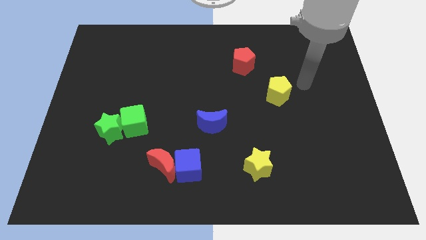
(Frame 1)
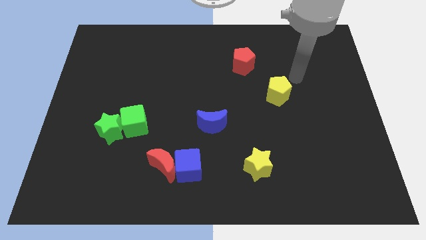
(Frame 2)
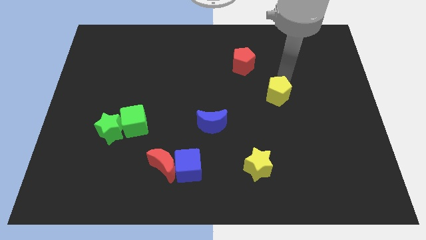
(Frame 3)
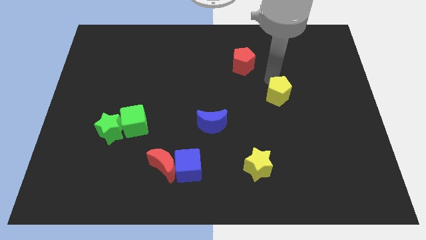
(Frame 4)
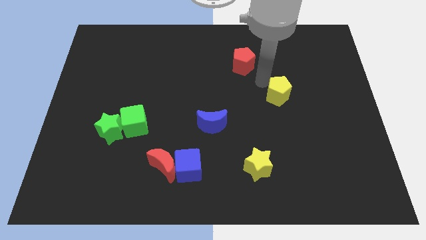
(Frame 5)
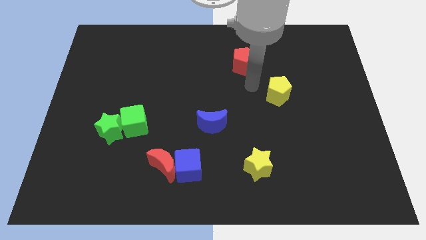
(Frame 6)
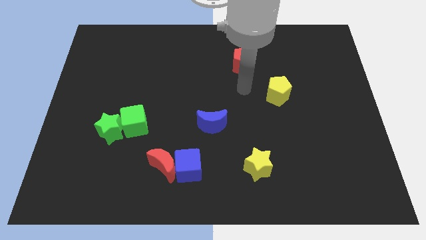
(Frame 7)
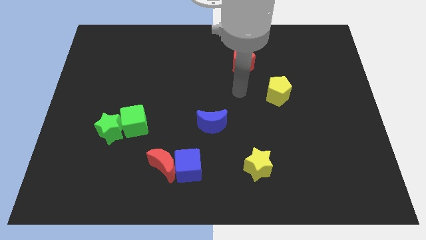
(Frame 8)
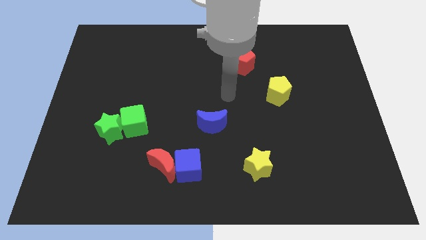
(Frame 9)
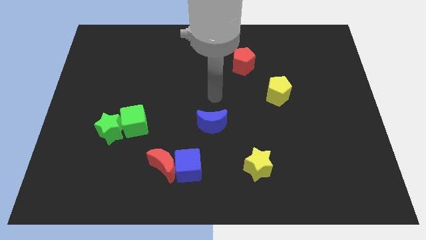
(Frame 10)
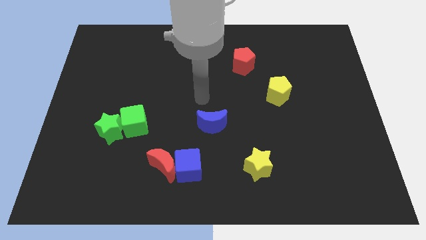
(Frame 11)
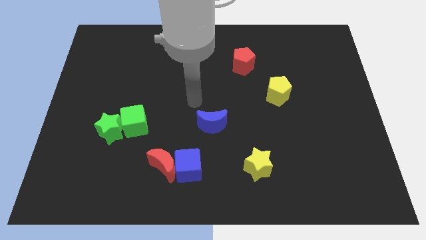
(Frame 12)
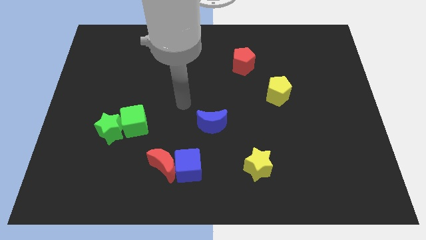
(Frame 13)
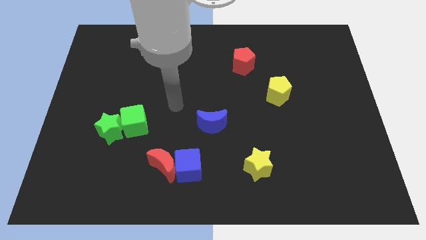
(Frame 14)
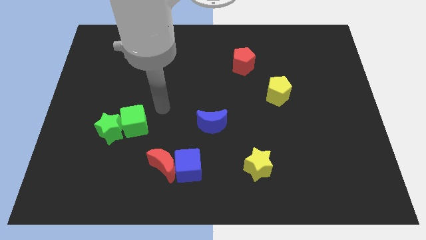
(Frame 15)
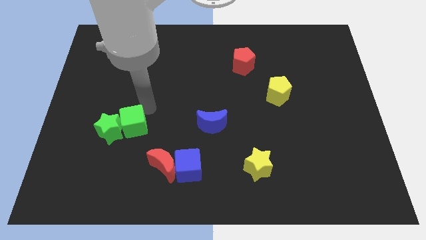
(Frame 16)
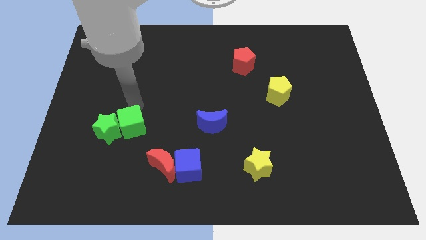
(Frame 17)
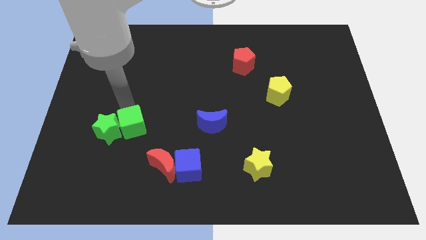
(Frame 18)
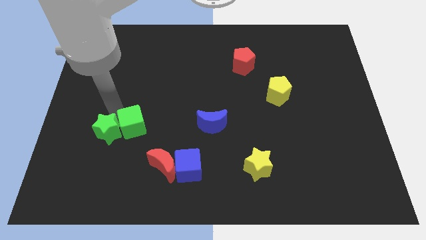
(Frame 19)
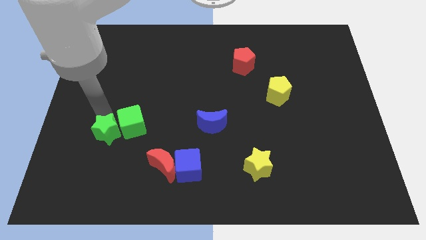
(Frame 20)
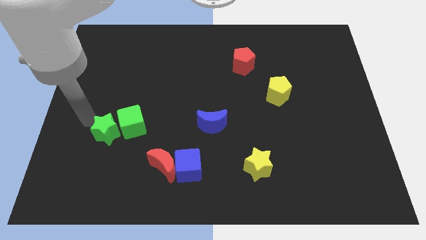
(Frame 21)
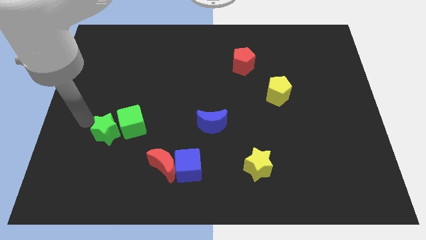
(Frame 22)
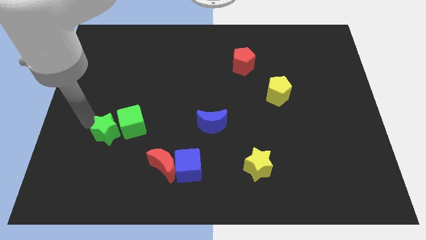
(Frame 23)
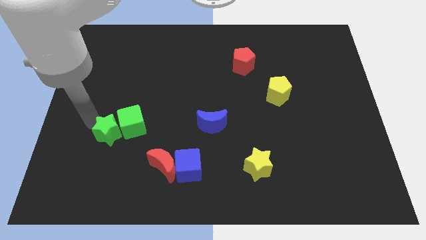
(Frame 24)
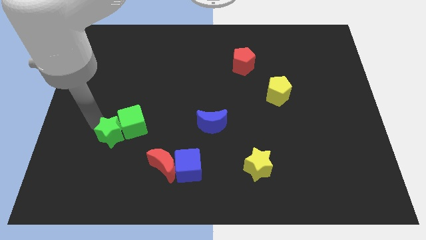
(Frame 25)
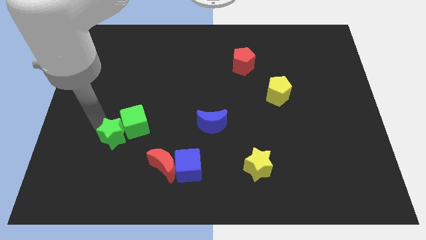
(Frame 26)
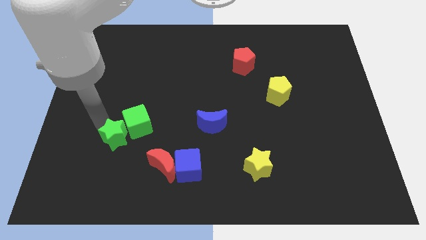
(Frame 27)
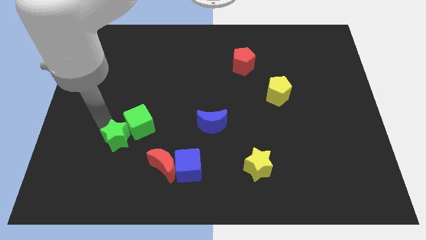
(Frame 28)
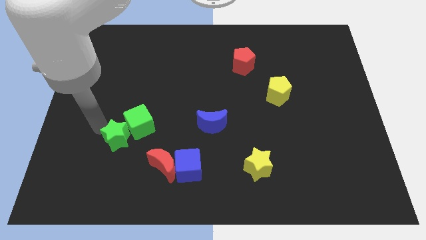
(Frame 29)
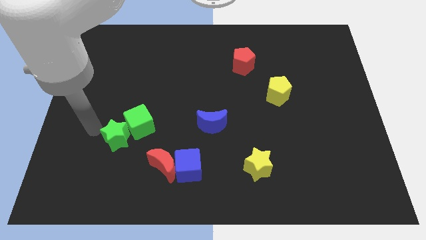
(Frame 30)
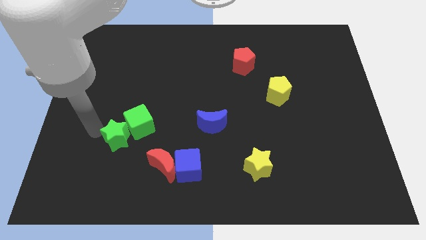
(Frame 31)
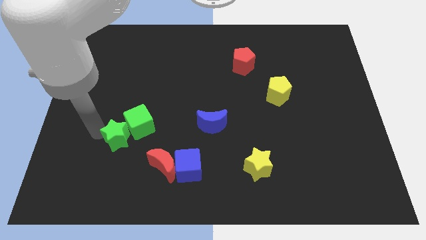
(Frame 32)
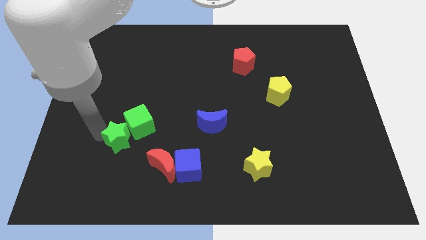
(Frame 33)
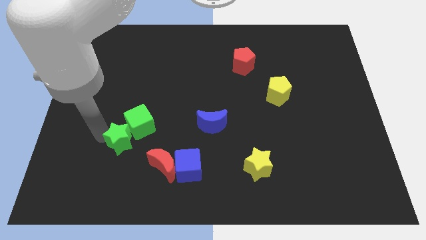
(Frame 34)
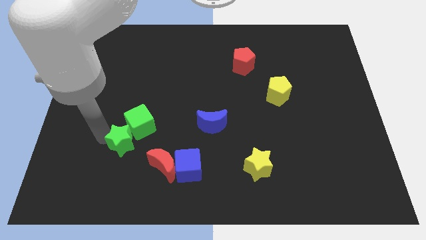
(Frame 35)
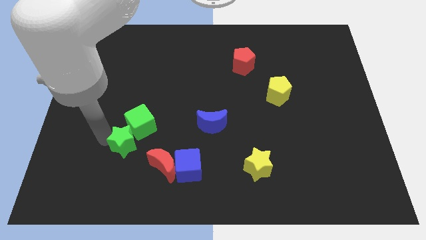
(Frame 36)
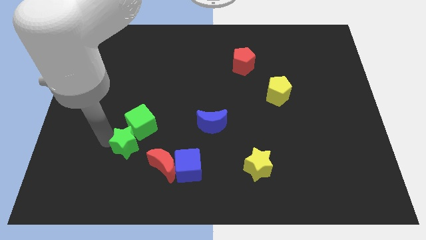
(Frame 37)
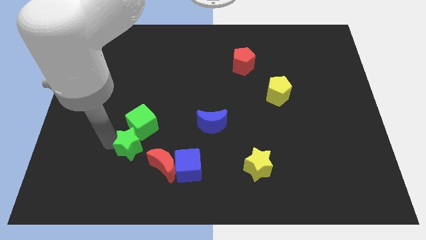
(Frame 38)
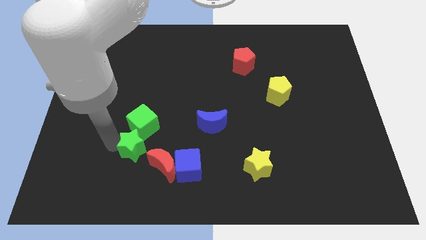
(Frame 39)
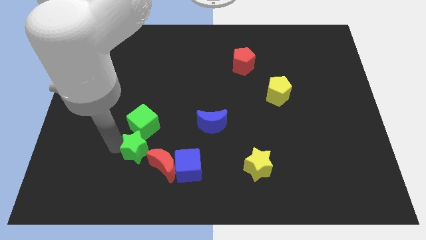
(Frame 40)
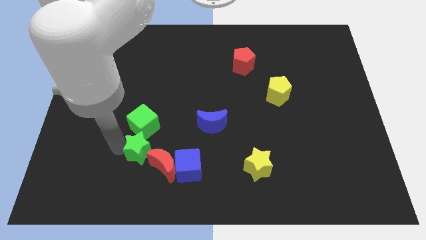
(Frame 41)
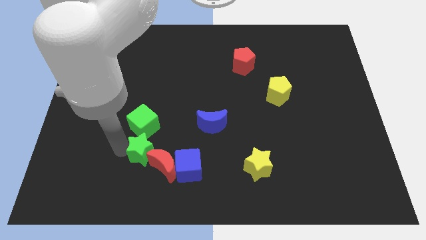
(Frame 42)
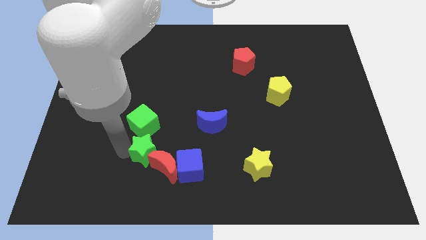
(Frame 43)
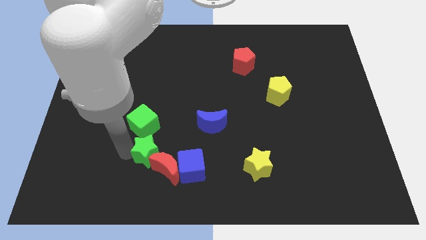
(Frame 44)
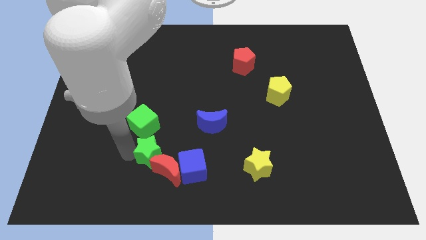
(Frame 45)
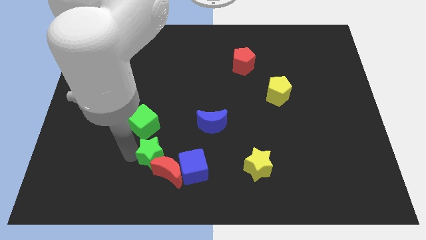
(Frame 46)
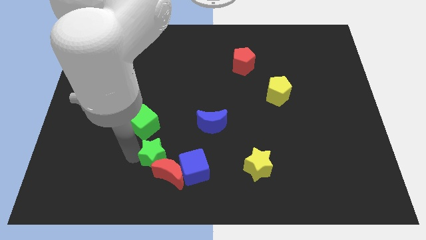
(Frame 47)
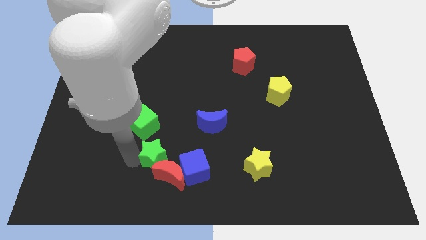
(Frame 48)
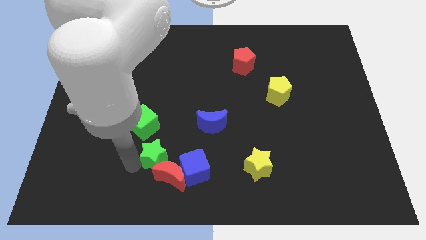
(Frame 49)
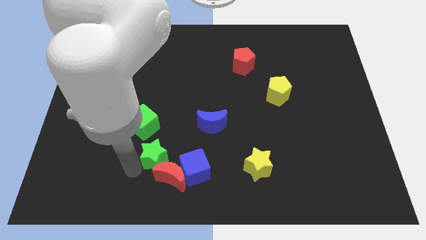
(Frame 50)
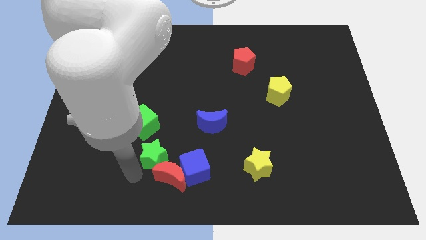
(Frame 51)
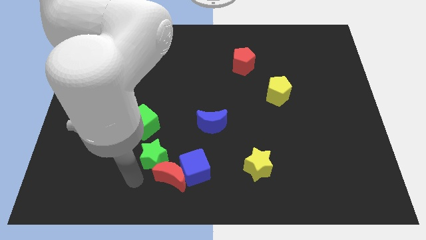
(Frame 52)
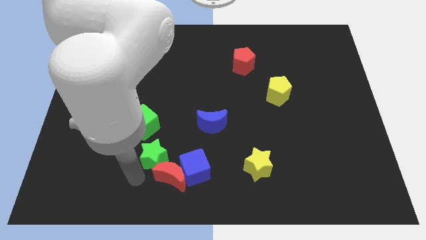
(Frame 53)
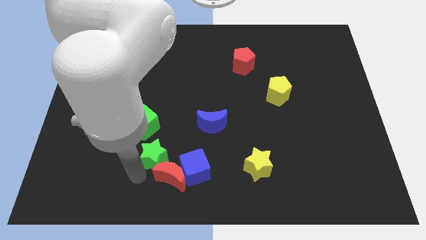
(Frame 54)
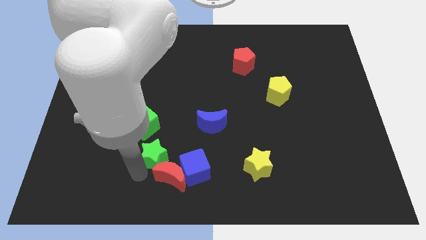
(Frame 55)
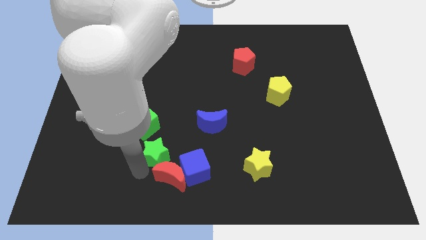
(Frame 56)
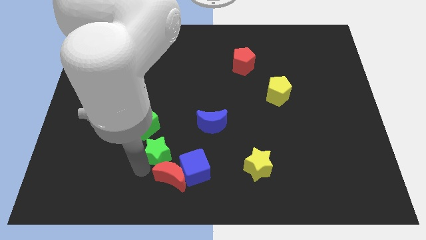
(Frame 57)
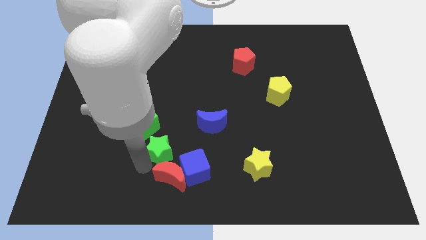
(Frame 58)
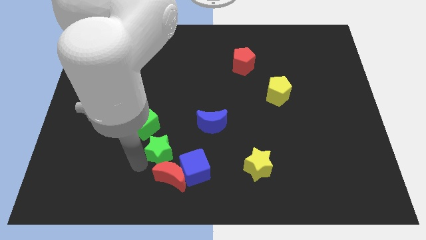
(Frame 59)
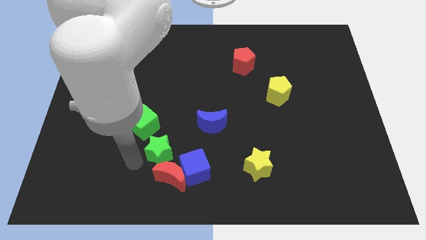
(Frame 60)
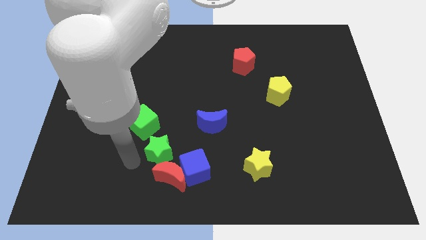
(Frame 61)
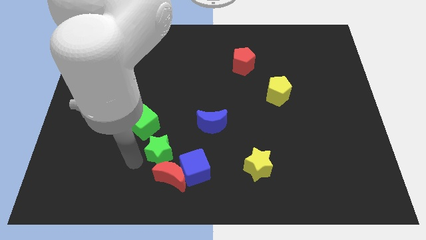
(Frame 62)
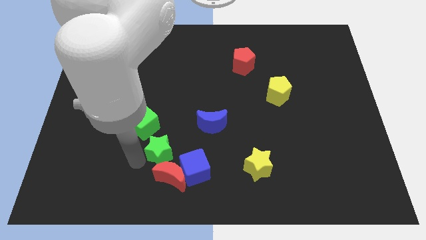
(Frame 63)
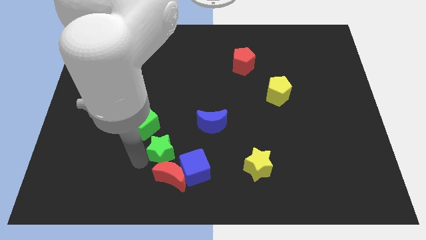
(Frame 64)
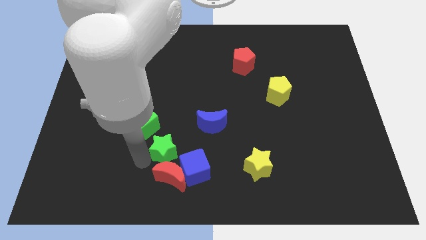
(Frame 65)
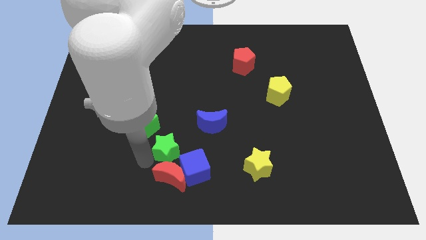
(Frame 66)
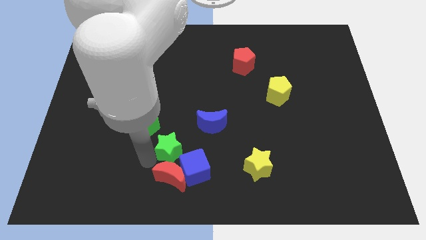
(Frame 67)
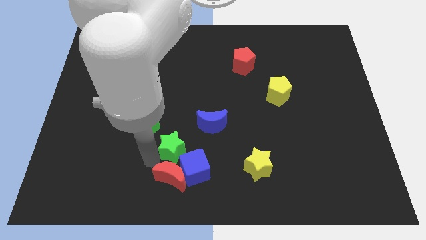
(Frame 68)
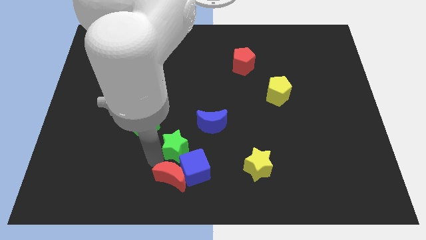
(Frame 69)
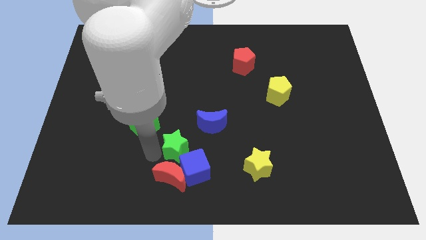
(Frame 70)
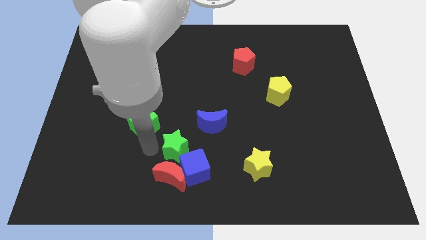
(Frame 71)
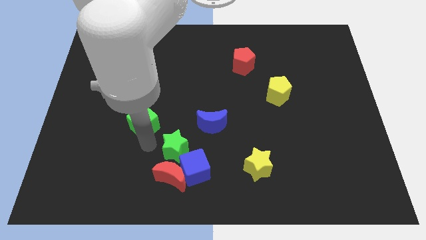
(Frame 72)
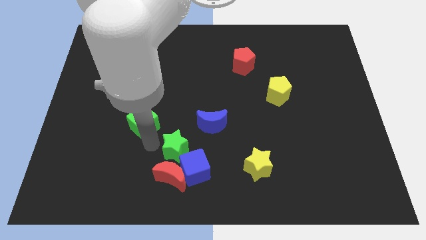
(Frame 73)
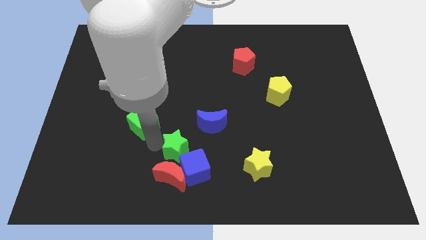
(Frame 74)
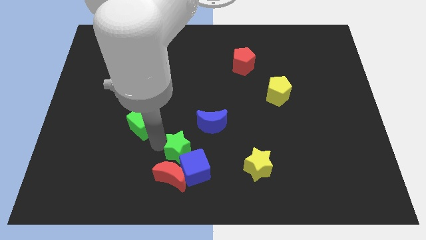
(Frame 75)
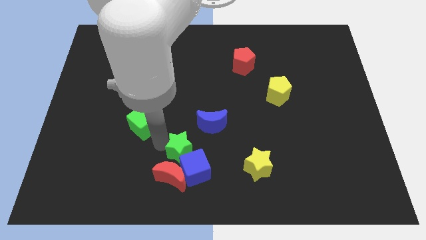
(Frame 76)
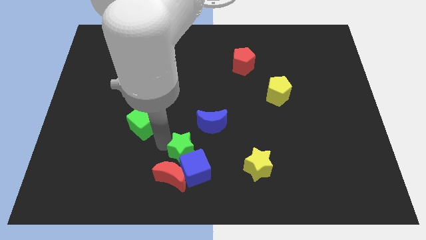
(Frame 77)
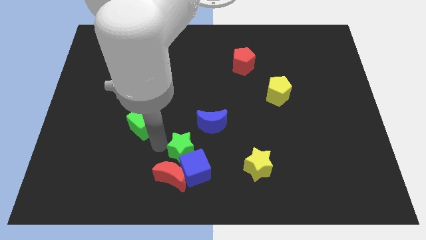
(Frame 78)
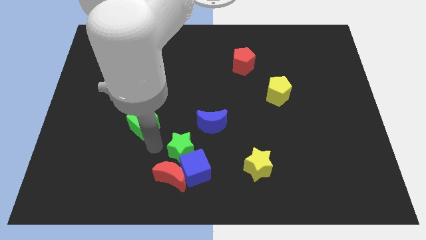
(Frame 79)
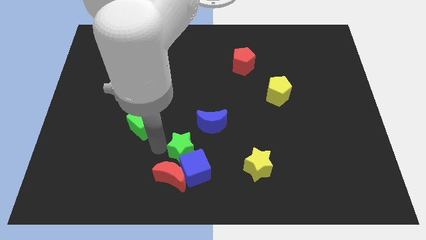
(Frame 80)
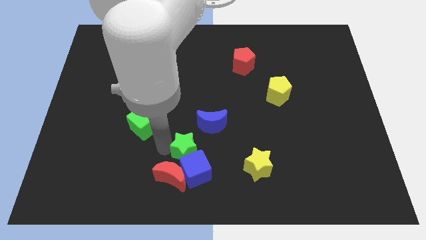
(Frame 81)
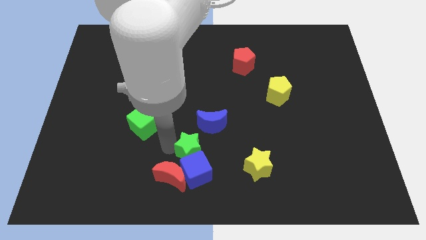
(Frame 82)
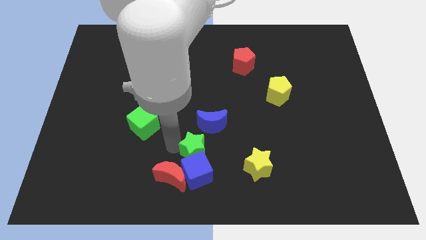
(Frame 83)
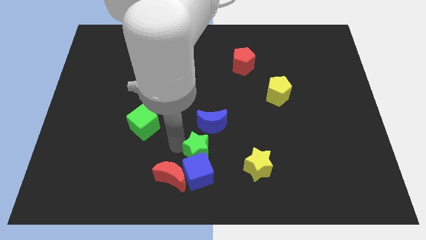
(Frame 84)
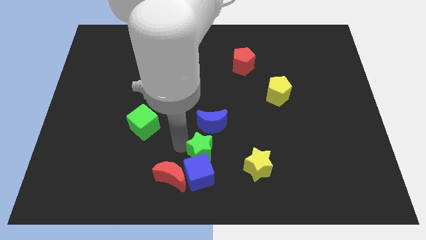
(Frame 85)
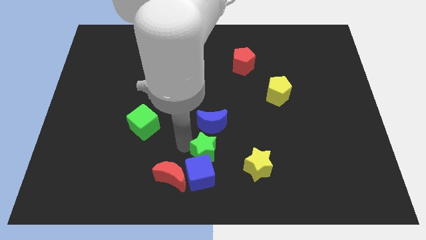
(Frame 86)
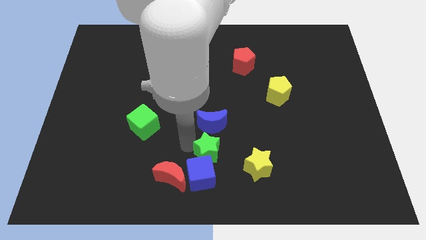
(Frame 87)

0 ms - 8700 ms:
slide the green star to the bottom side
